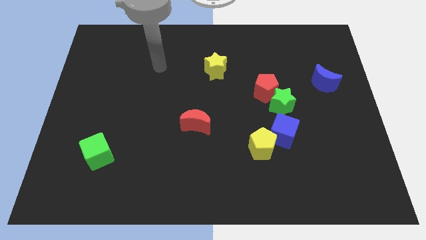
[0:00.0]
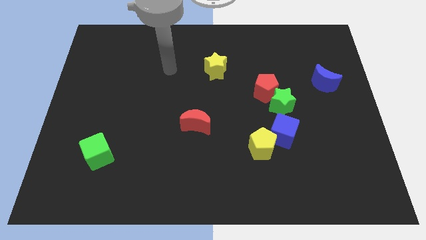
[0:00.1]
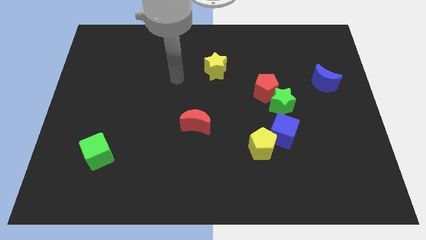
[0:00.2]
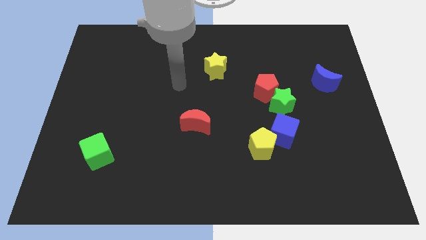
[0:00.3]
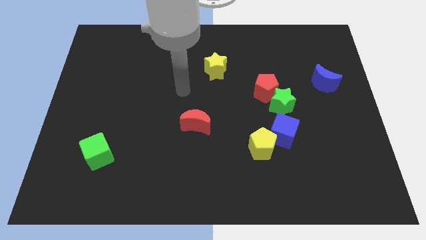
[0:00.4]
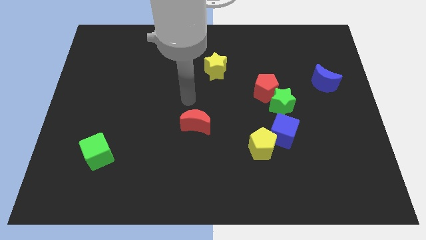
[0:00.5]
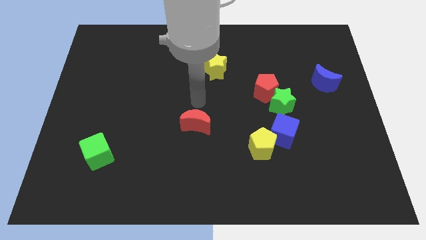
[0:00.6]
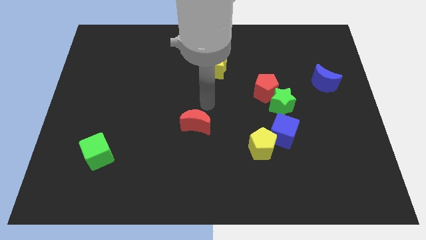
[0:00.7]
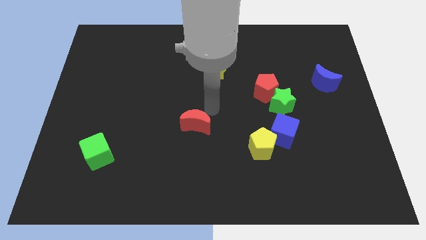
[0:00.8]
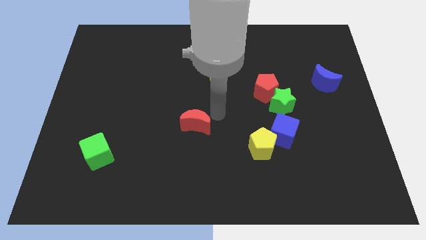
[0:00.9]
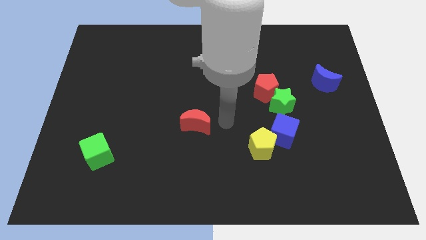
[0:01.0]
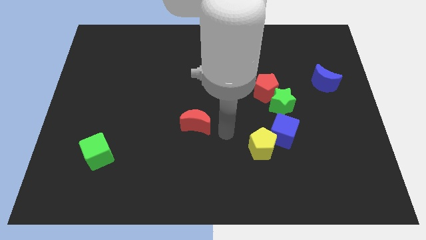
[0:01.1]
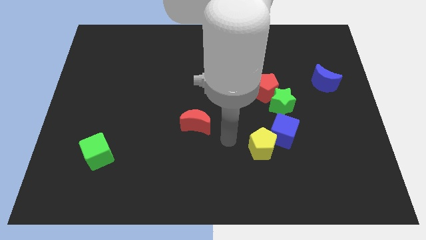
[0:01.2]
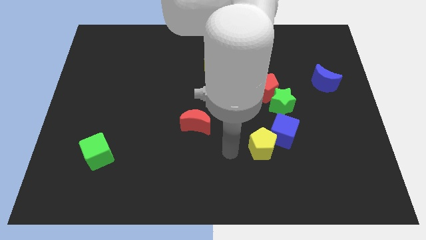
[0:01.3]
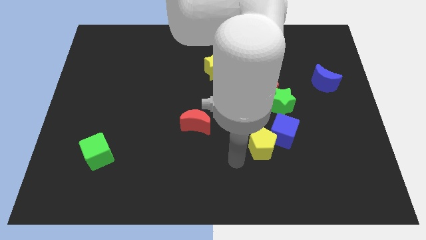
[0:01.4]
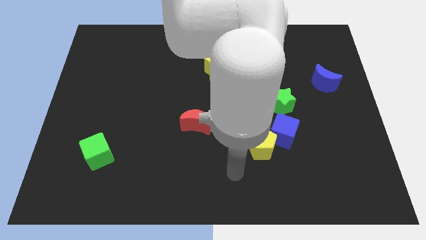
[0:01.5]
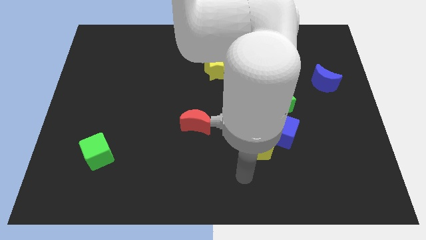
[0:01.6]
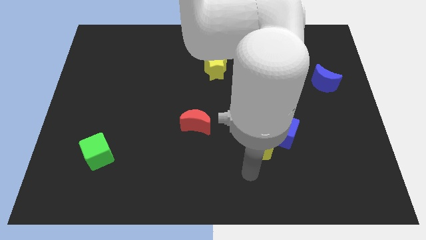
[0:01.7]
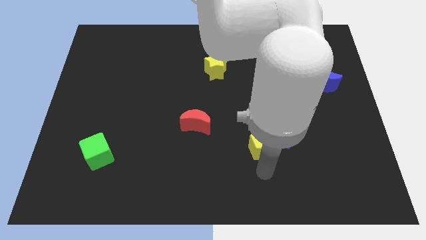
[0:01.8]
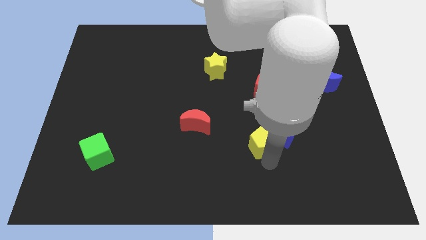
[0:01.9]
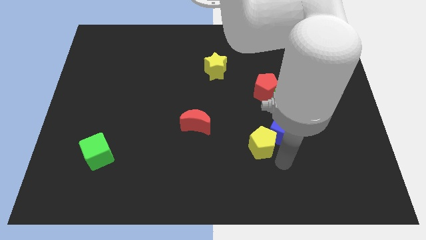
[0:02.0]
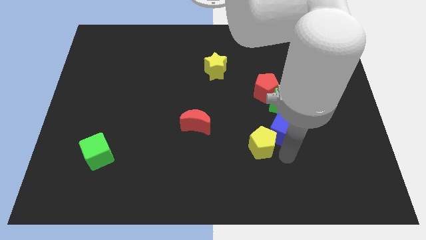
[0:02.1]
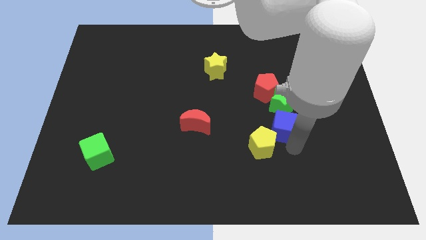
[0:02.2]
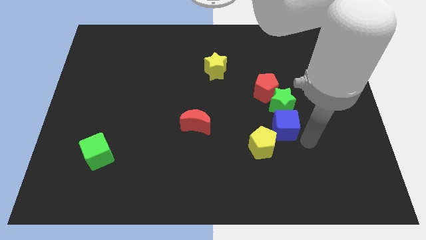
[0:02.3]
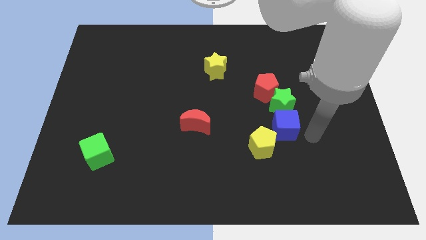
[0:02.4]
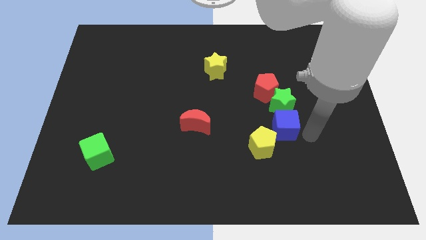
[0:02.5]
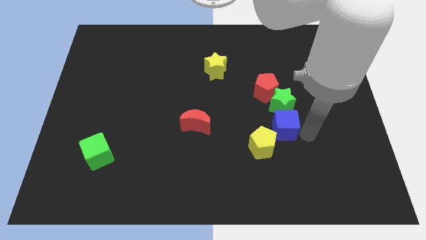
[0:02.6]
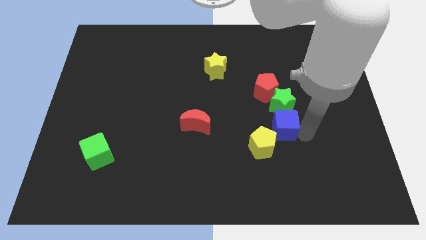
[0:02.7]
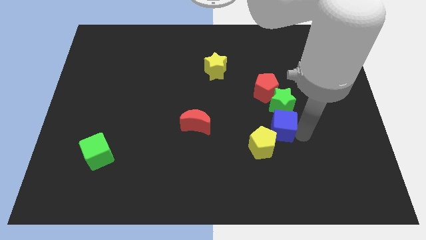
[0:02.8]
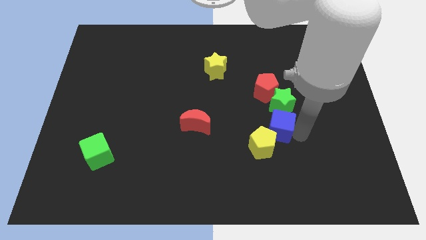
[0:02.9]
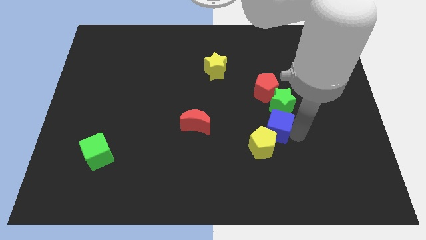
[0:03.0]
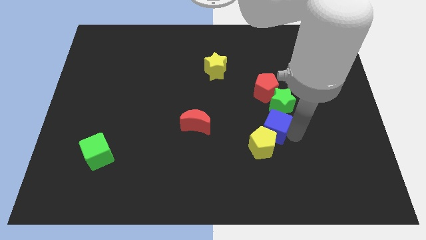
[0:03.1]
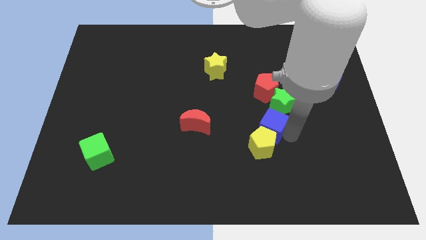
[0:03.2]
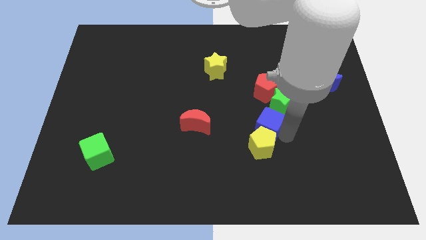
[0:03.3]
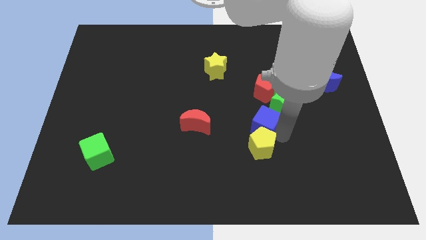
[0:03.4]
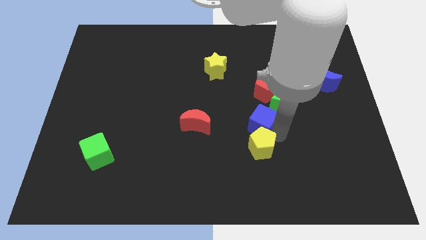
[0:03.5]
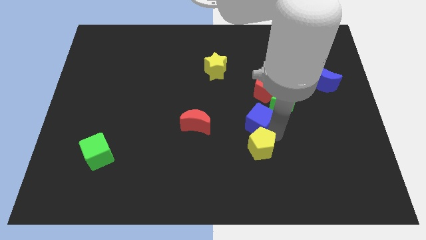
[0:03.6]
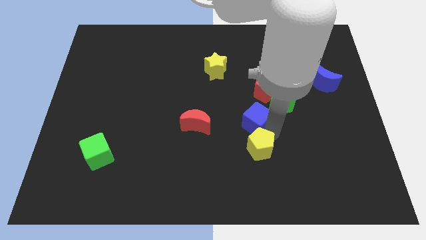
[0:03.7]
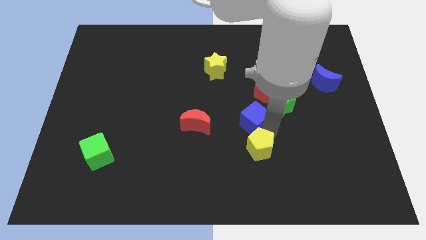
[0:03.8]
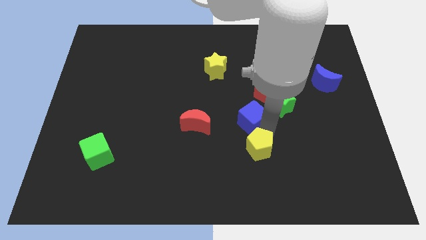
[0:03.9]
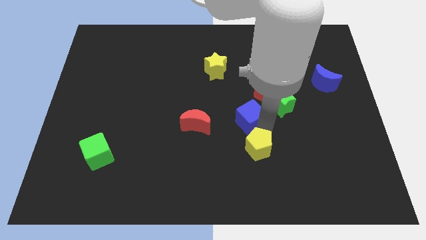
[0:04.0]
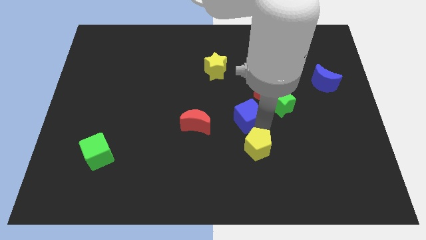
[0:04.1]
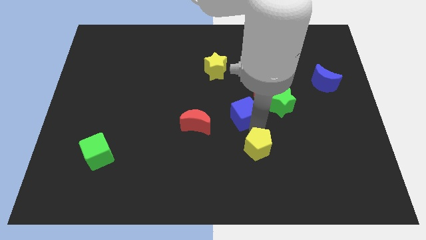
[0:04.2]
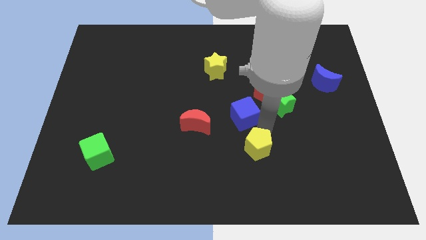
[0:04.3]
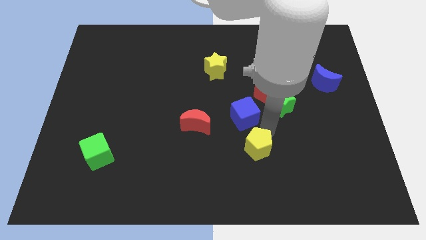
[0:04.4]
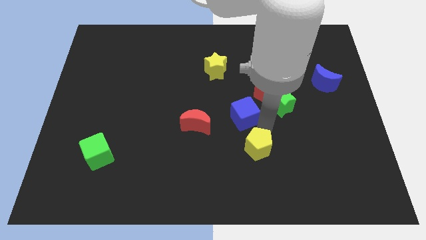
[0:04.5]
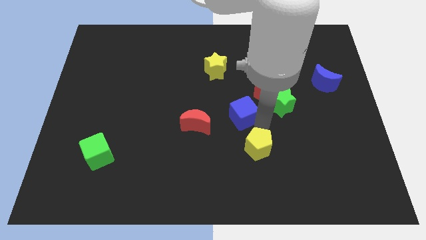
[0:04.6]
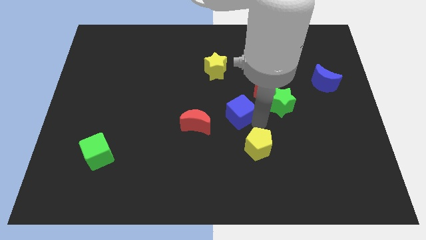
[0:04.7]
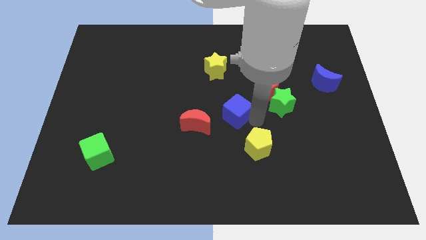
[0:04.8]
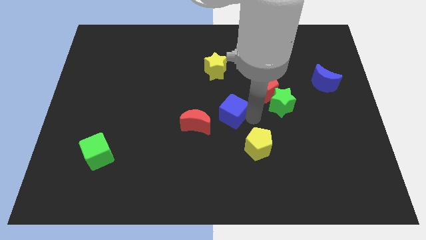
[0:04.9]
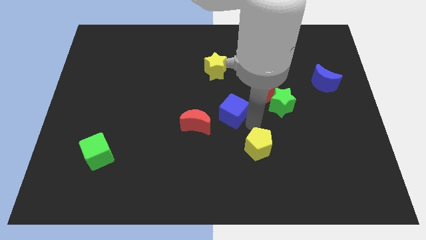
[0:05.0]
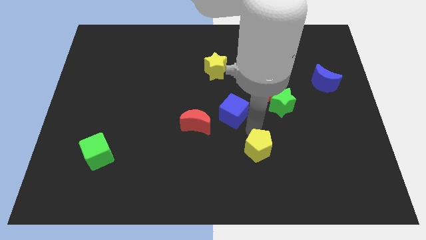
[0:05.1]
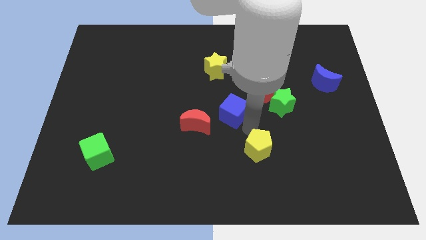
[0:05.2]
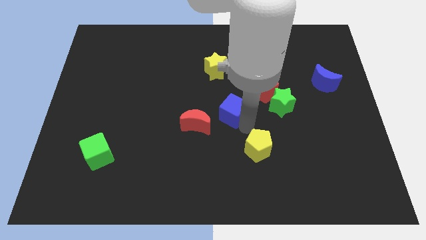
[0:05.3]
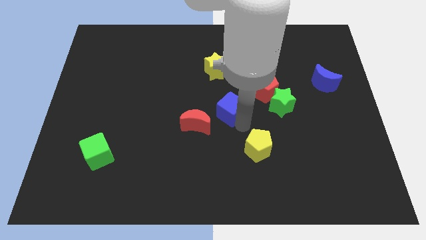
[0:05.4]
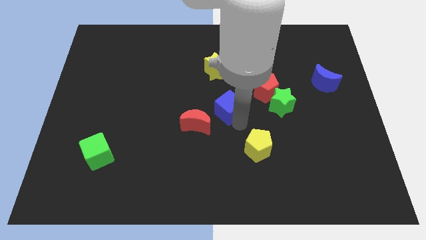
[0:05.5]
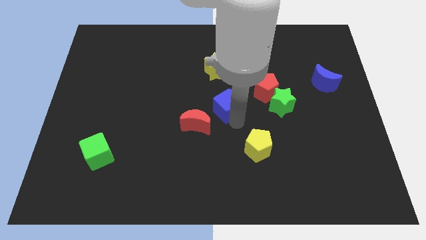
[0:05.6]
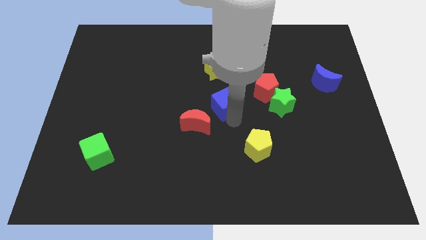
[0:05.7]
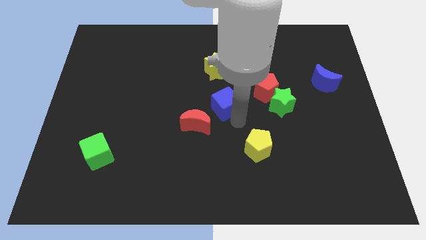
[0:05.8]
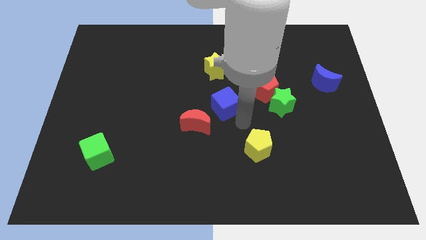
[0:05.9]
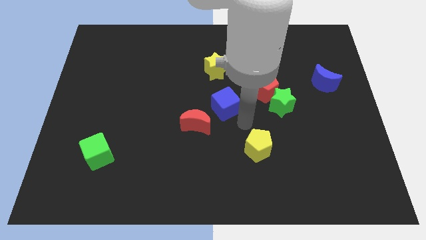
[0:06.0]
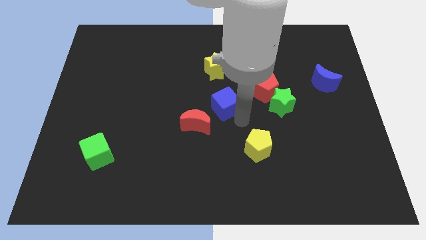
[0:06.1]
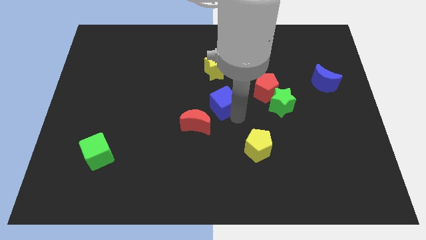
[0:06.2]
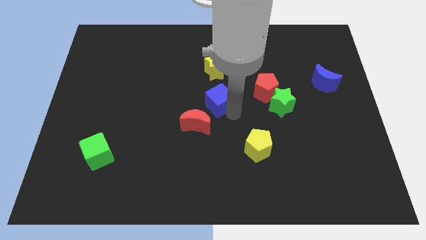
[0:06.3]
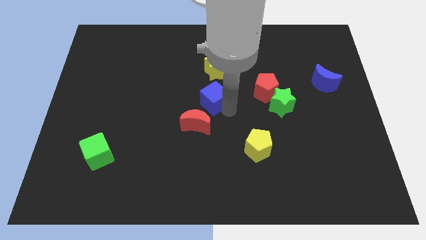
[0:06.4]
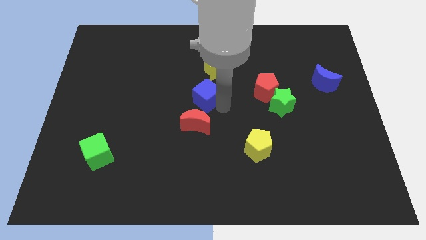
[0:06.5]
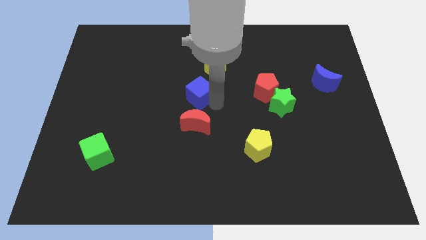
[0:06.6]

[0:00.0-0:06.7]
push the blue cube to the bottom left side of the yellow star
